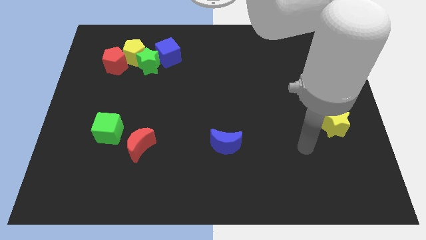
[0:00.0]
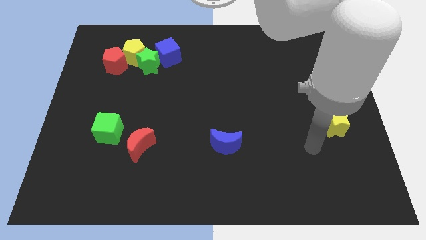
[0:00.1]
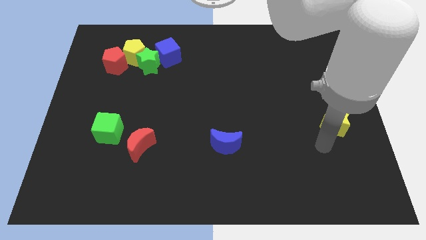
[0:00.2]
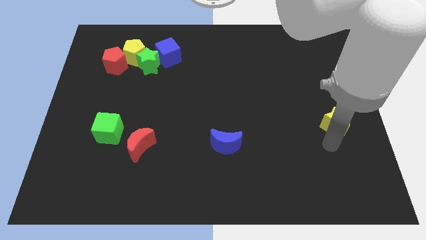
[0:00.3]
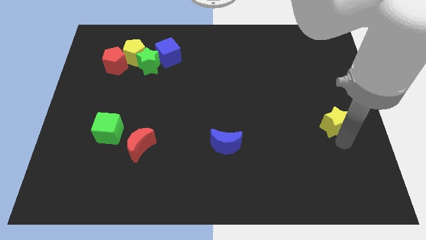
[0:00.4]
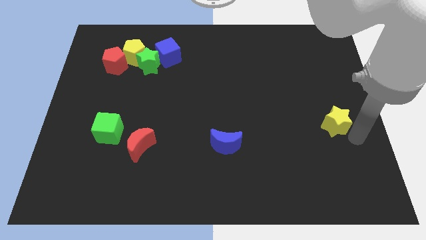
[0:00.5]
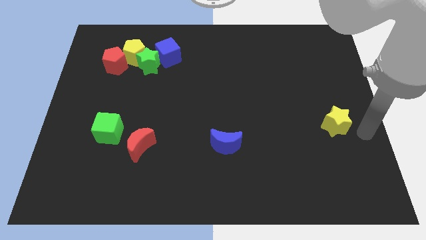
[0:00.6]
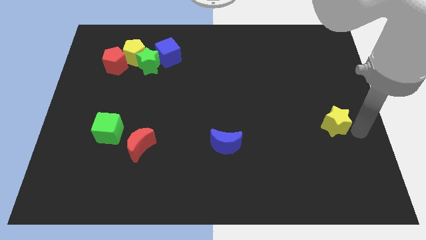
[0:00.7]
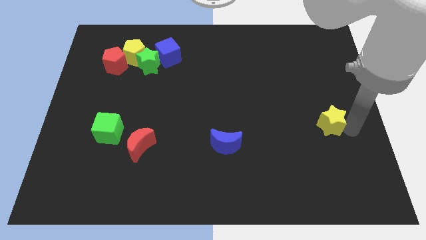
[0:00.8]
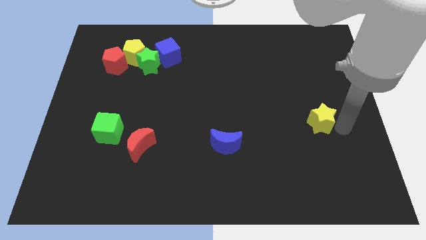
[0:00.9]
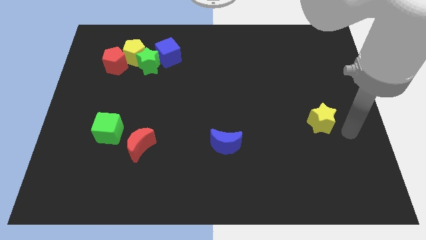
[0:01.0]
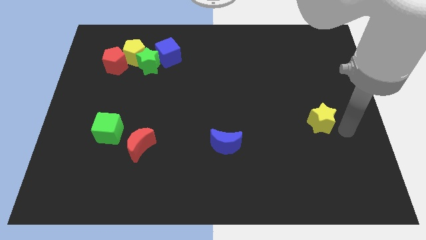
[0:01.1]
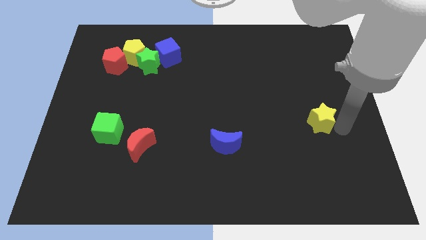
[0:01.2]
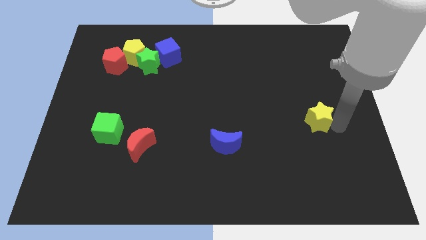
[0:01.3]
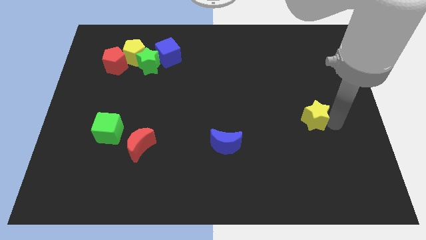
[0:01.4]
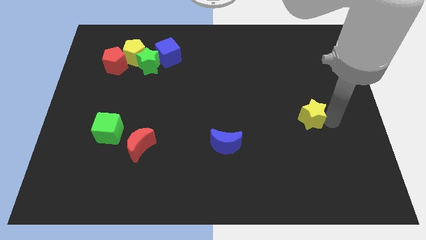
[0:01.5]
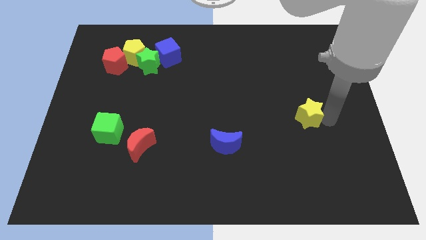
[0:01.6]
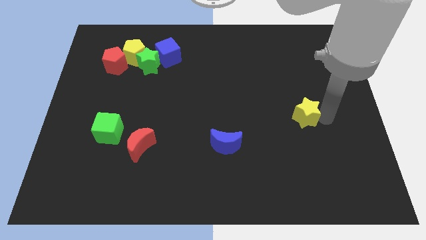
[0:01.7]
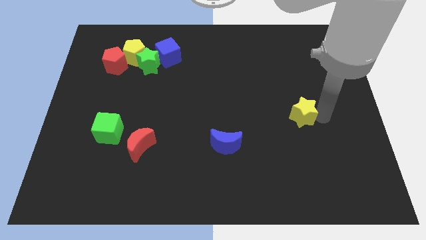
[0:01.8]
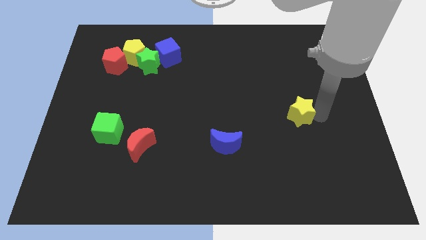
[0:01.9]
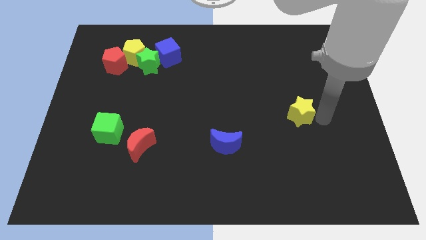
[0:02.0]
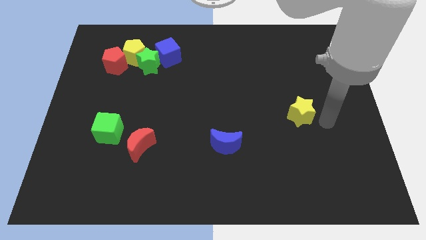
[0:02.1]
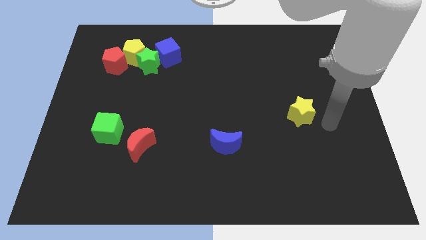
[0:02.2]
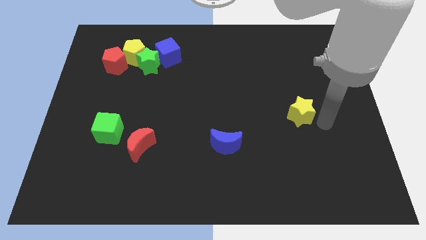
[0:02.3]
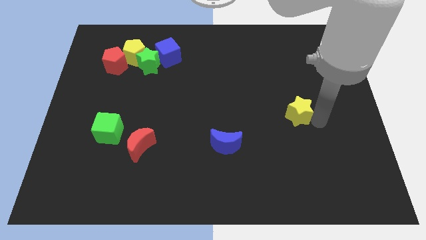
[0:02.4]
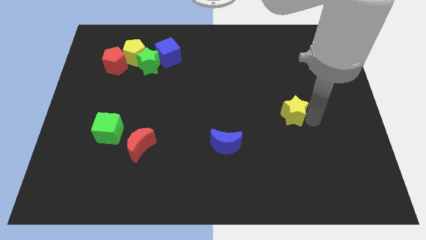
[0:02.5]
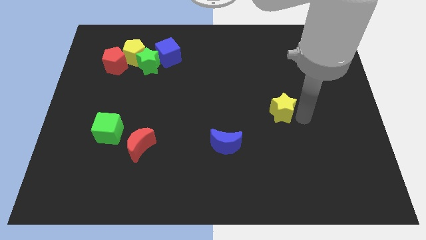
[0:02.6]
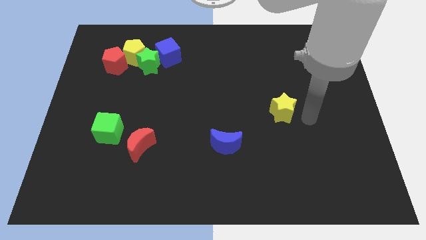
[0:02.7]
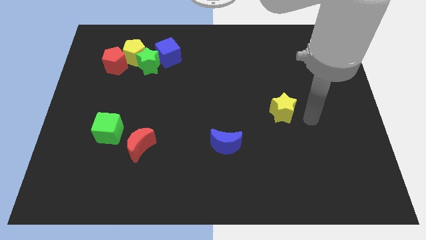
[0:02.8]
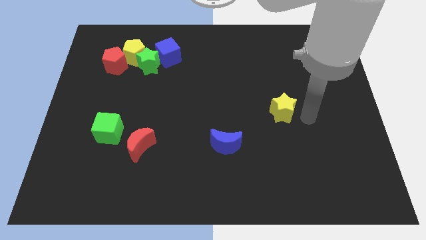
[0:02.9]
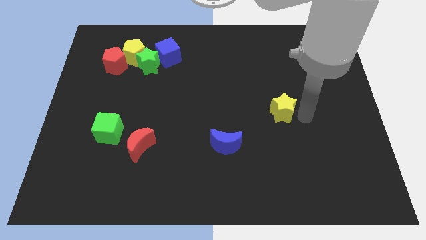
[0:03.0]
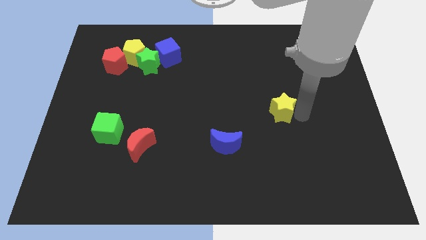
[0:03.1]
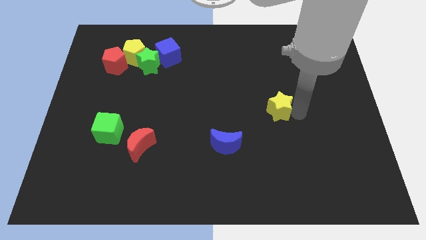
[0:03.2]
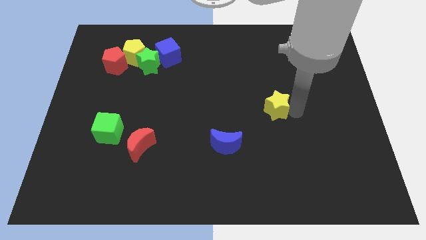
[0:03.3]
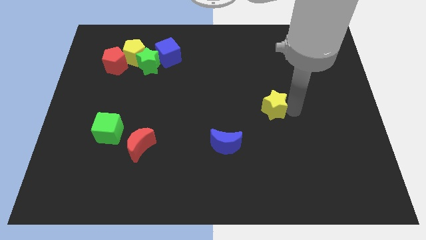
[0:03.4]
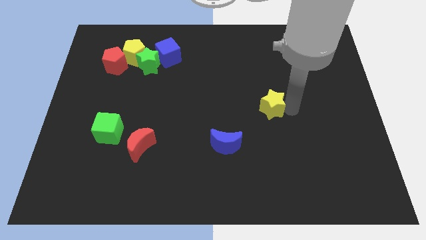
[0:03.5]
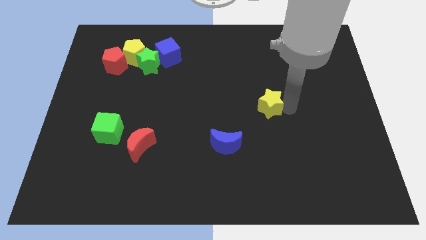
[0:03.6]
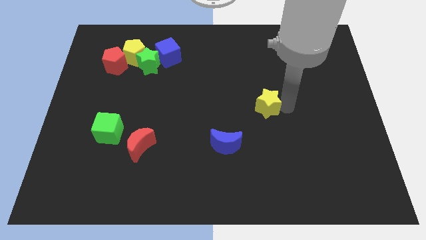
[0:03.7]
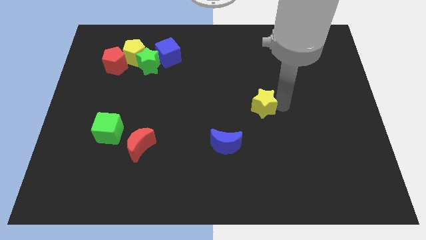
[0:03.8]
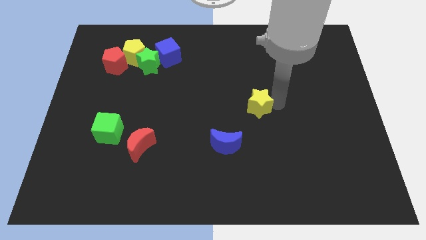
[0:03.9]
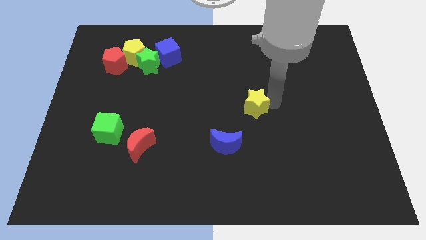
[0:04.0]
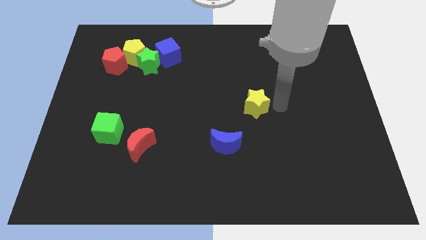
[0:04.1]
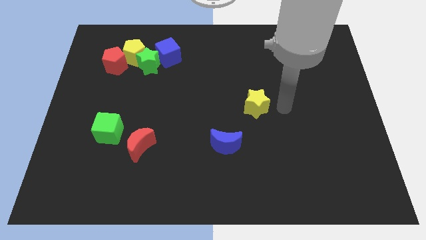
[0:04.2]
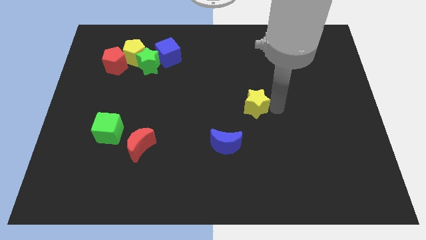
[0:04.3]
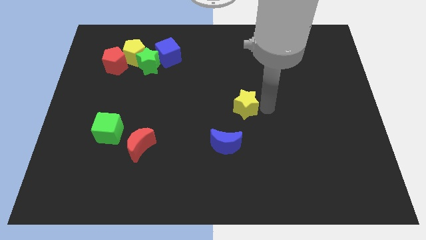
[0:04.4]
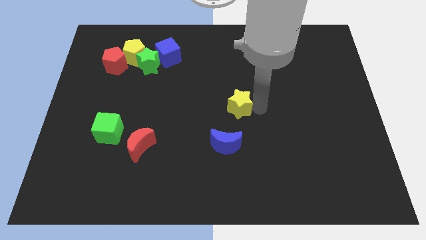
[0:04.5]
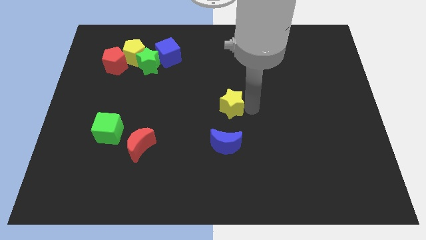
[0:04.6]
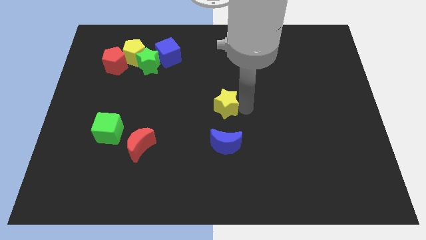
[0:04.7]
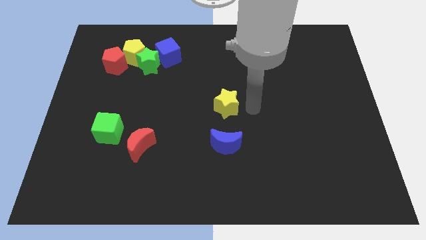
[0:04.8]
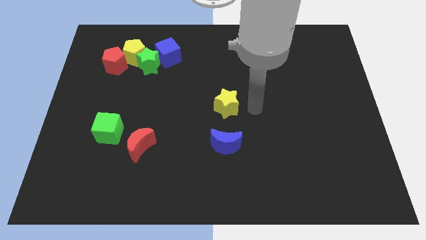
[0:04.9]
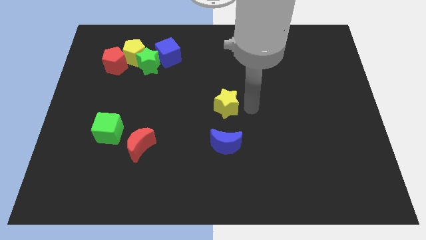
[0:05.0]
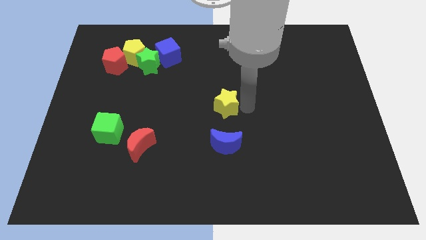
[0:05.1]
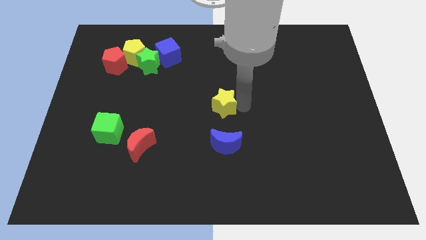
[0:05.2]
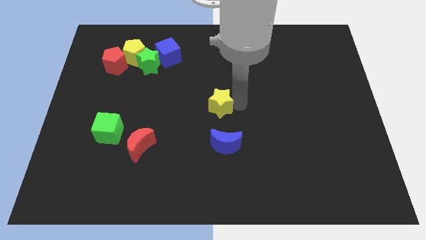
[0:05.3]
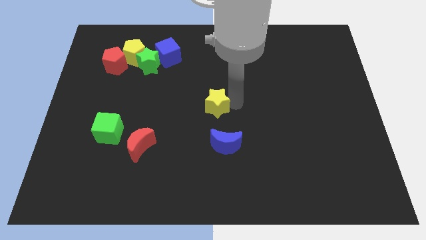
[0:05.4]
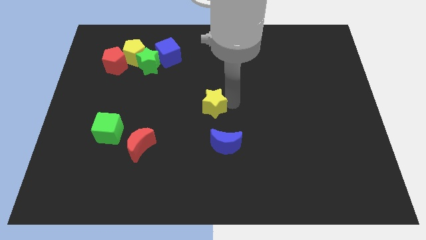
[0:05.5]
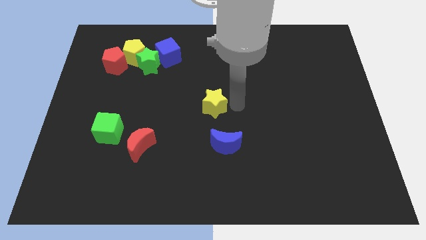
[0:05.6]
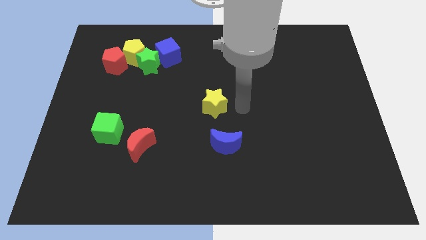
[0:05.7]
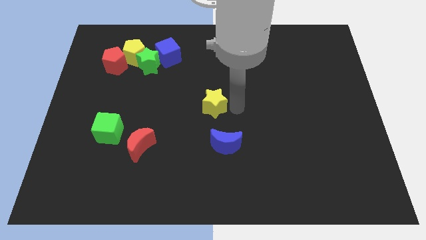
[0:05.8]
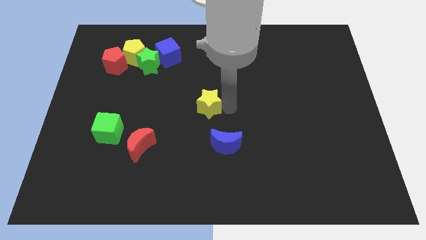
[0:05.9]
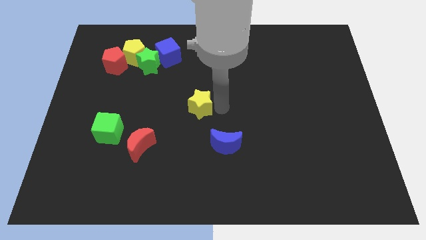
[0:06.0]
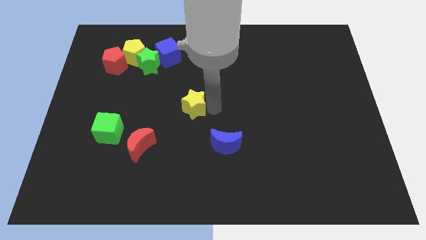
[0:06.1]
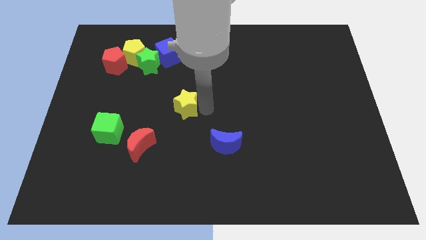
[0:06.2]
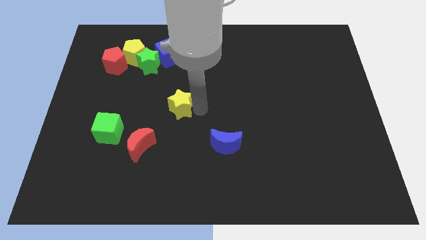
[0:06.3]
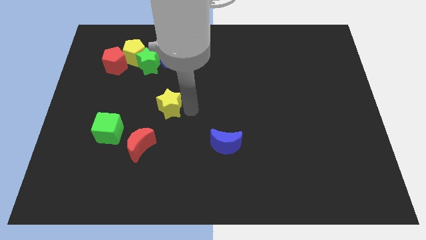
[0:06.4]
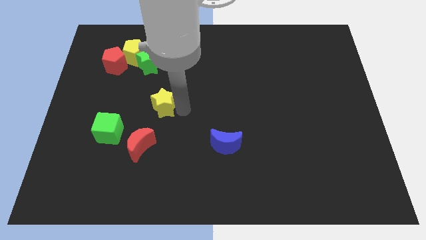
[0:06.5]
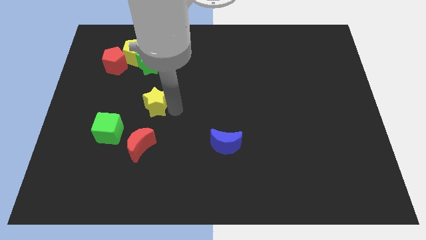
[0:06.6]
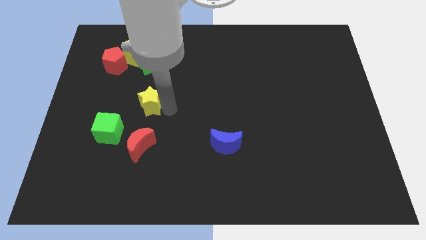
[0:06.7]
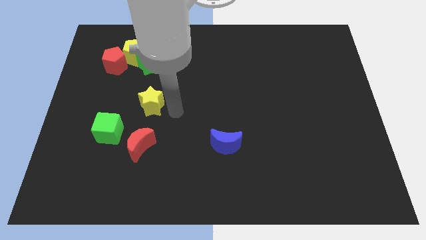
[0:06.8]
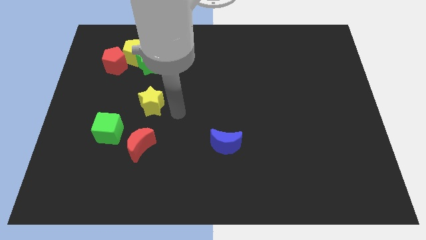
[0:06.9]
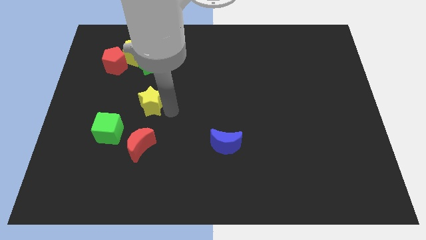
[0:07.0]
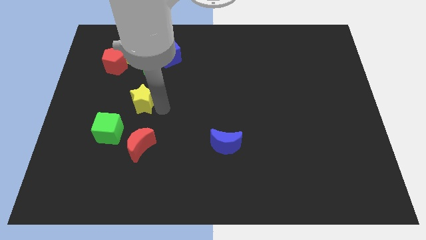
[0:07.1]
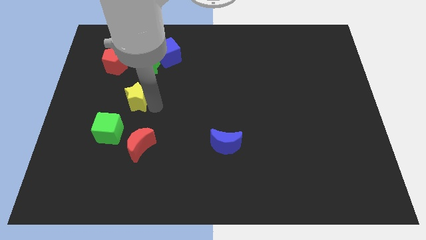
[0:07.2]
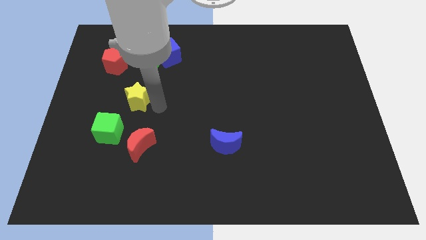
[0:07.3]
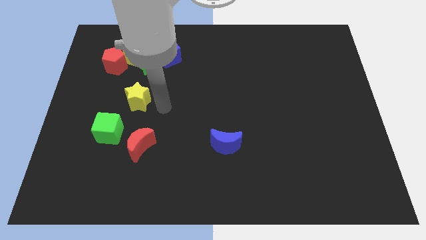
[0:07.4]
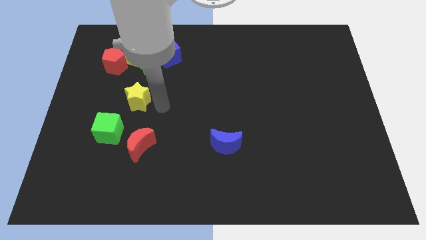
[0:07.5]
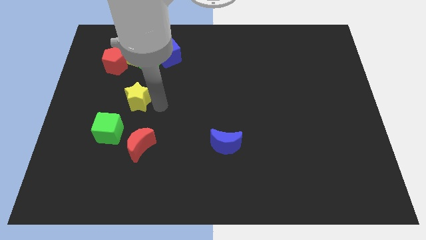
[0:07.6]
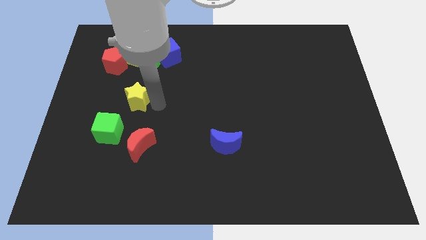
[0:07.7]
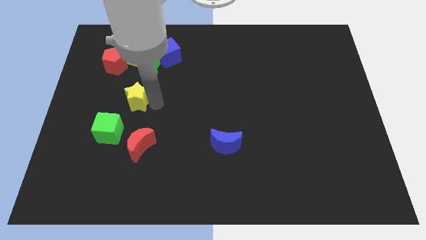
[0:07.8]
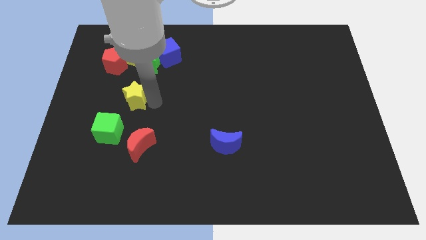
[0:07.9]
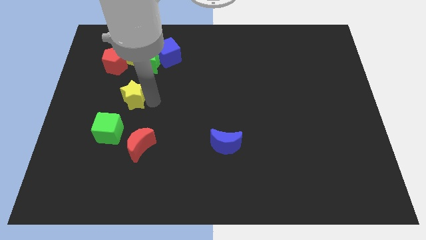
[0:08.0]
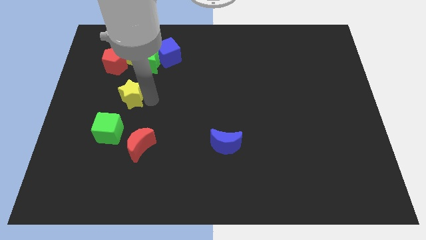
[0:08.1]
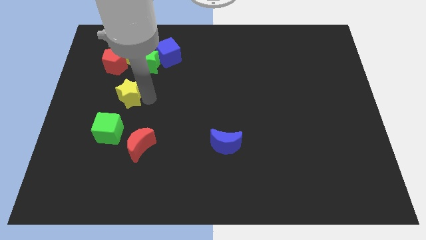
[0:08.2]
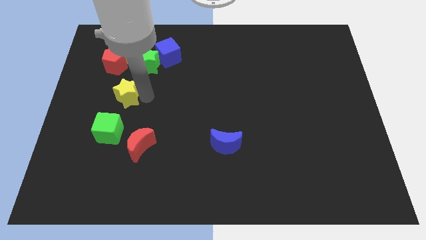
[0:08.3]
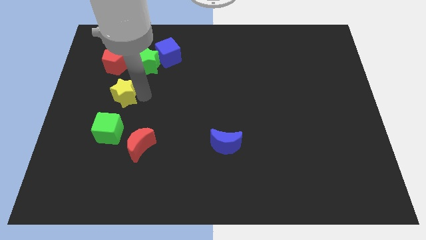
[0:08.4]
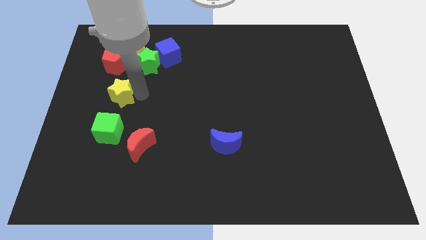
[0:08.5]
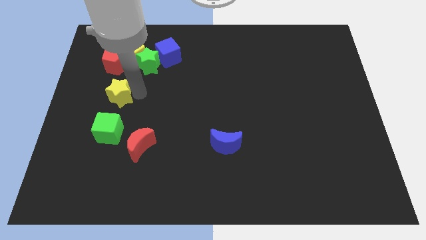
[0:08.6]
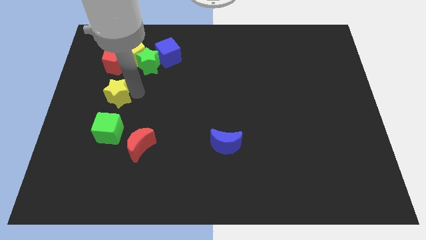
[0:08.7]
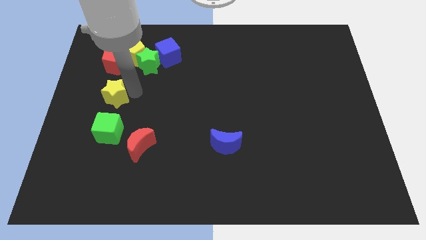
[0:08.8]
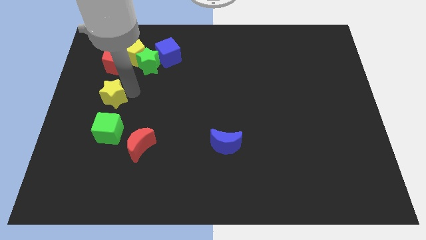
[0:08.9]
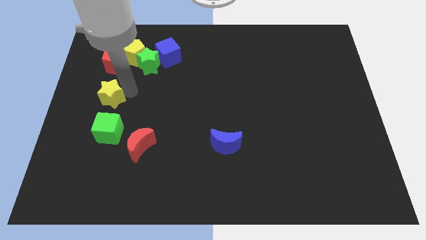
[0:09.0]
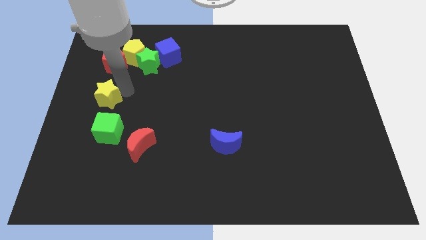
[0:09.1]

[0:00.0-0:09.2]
move the yellow star to the left side
